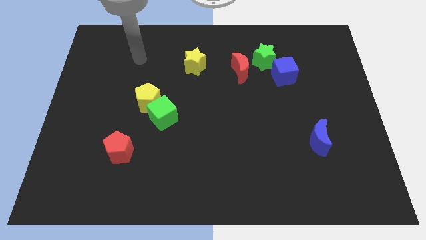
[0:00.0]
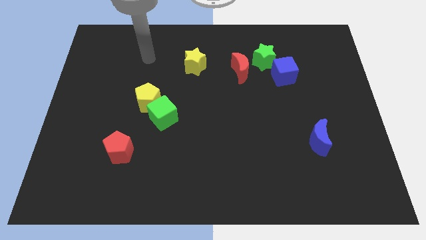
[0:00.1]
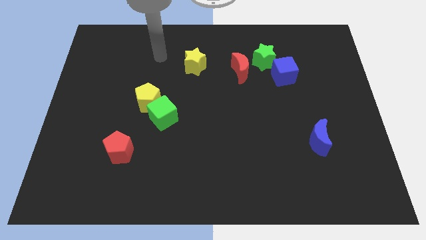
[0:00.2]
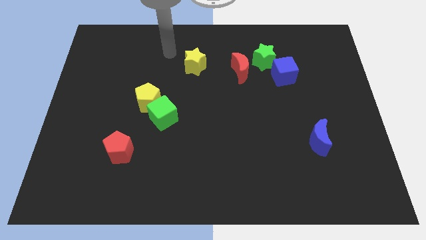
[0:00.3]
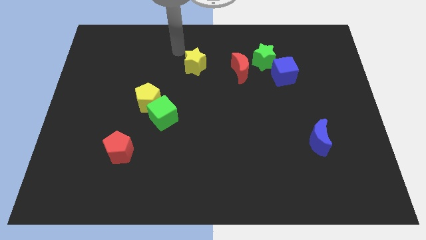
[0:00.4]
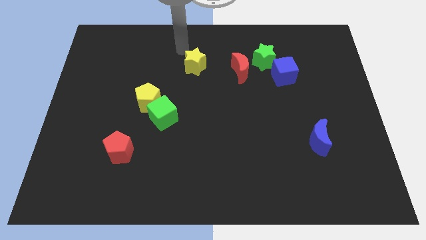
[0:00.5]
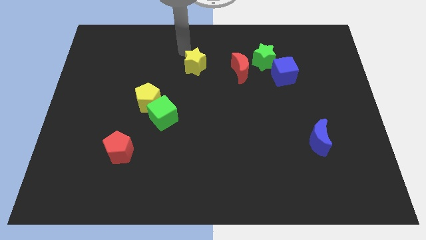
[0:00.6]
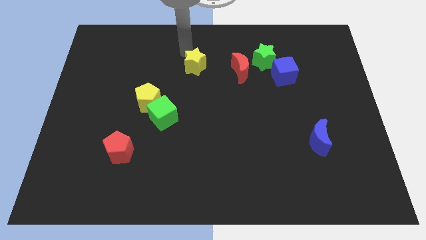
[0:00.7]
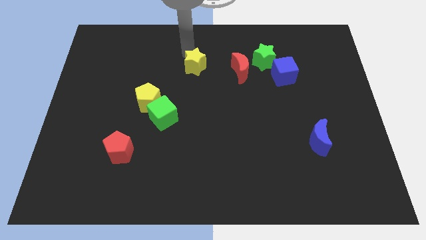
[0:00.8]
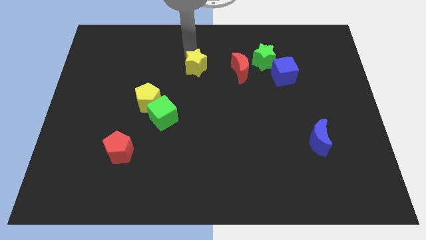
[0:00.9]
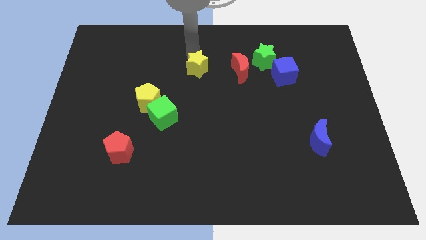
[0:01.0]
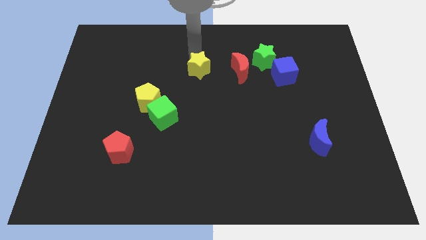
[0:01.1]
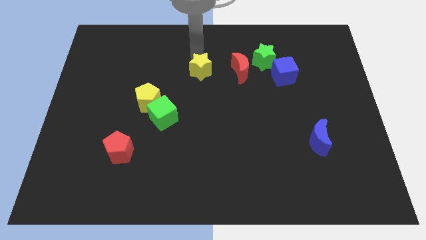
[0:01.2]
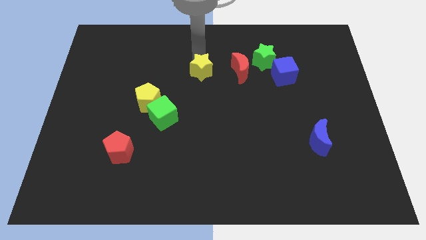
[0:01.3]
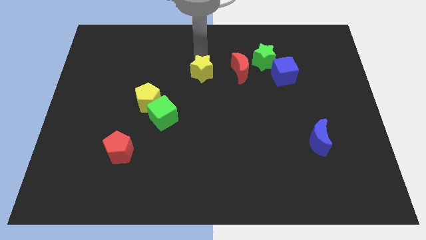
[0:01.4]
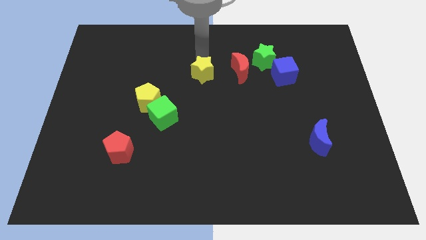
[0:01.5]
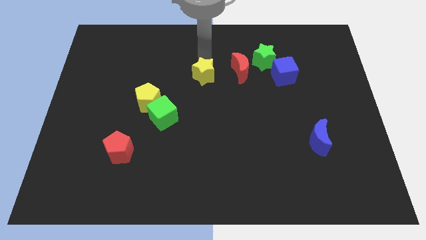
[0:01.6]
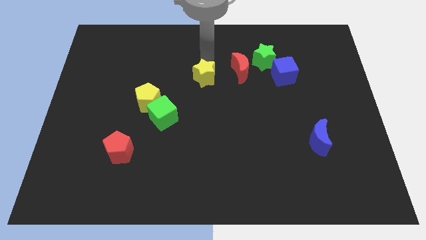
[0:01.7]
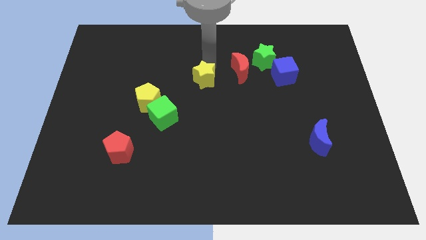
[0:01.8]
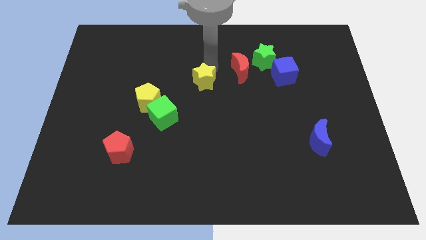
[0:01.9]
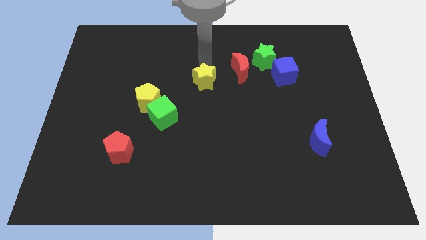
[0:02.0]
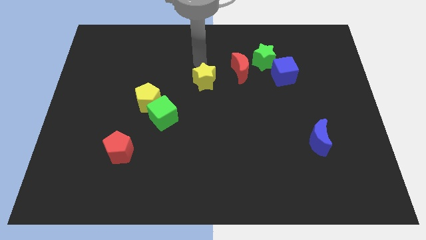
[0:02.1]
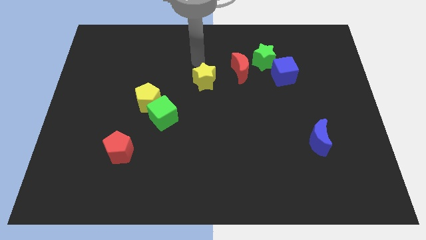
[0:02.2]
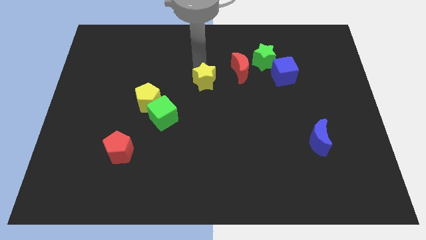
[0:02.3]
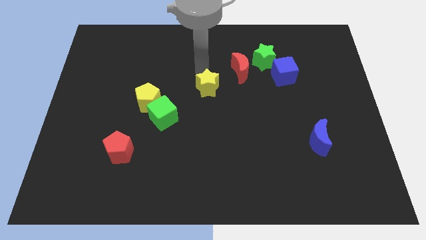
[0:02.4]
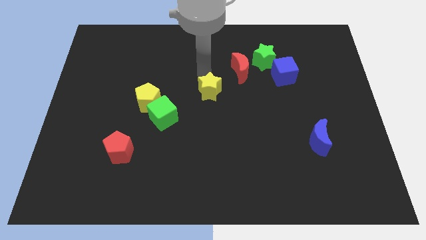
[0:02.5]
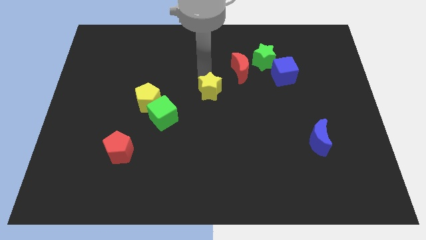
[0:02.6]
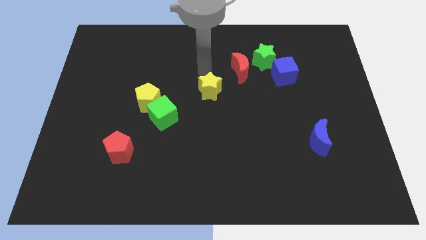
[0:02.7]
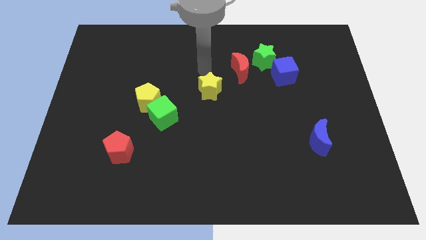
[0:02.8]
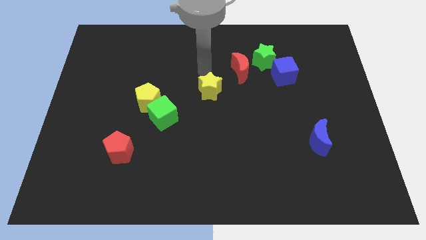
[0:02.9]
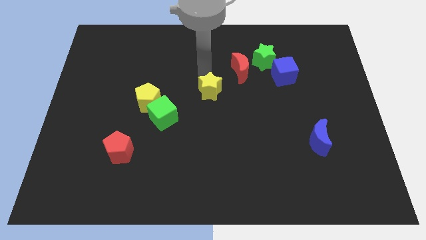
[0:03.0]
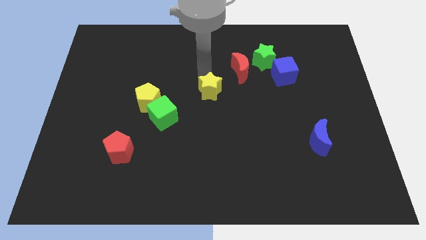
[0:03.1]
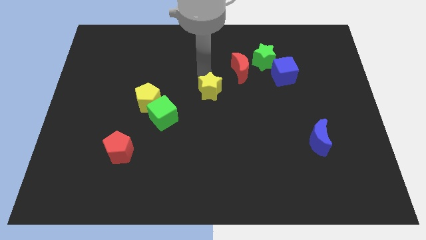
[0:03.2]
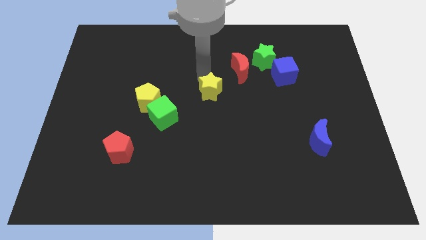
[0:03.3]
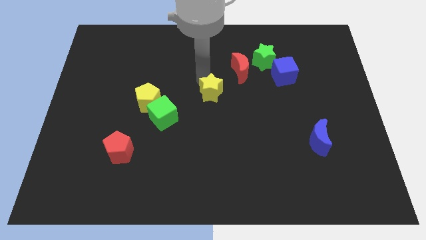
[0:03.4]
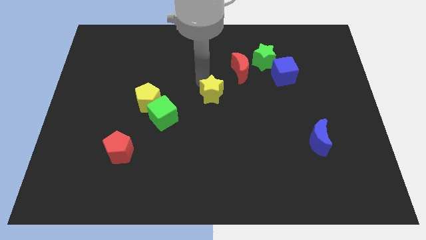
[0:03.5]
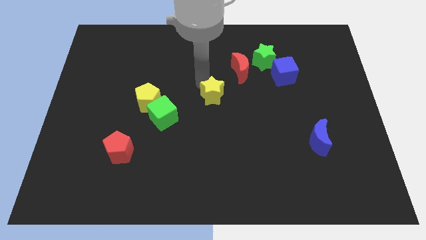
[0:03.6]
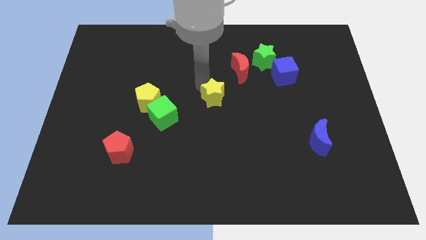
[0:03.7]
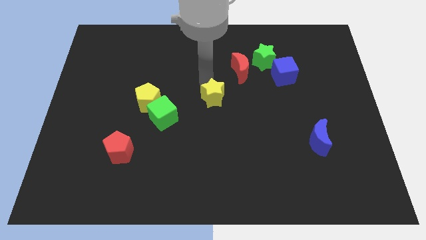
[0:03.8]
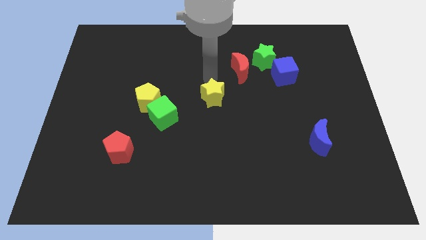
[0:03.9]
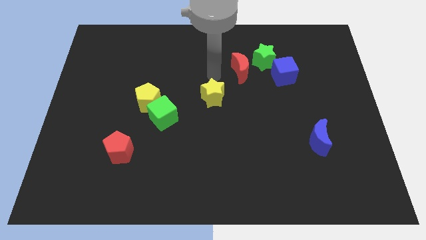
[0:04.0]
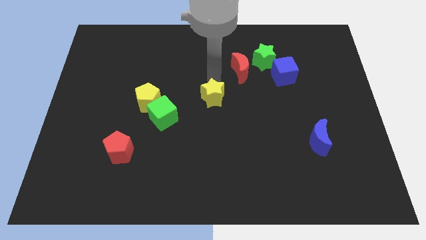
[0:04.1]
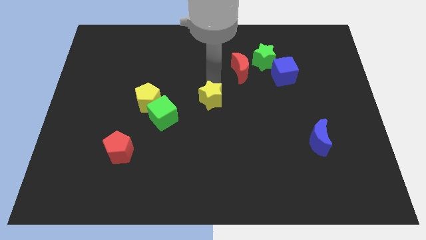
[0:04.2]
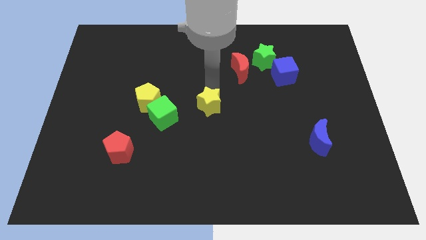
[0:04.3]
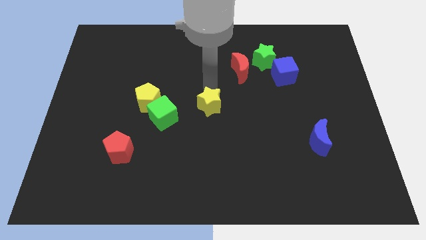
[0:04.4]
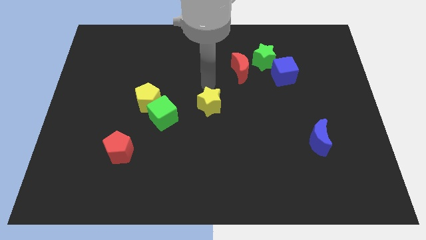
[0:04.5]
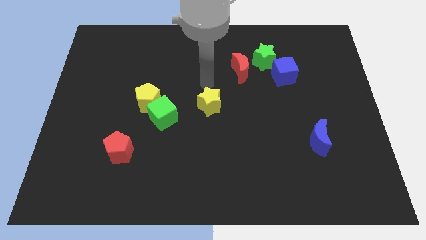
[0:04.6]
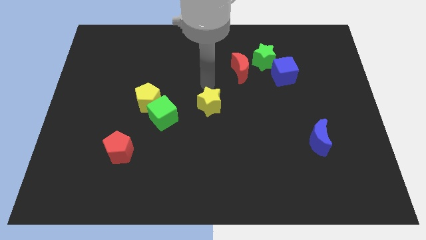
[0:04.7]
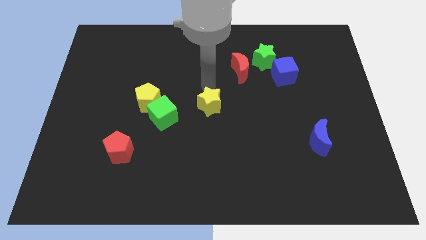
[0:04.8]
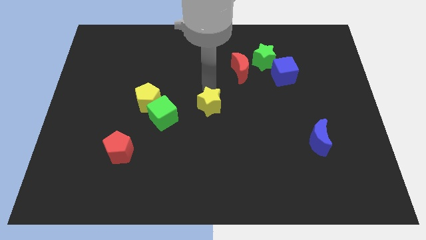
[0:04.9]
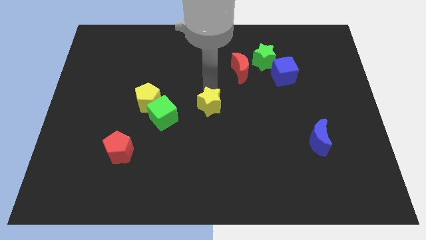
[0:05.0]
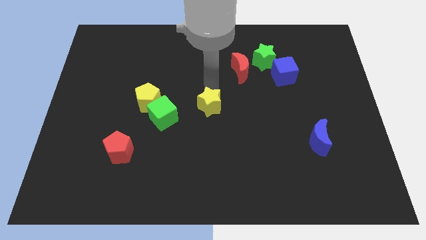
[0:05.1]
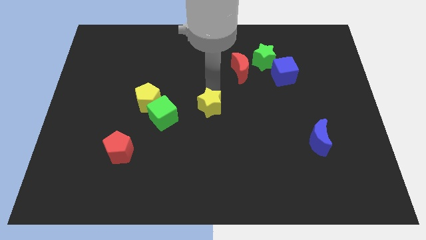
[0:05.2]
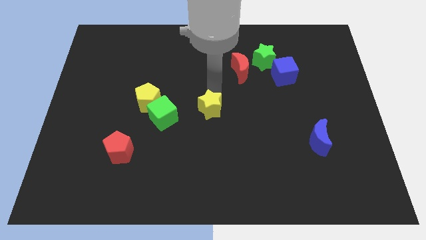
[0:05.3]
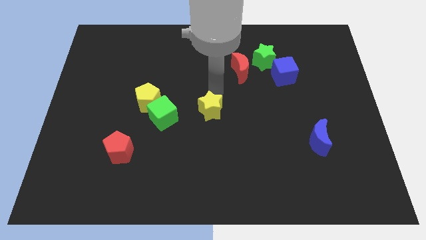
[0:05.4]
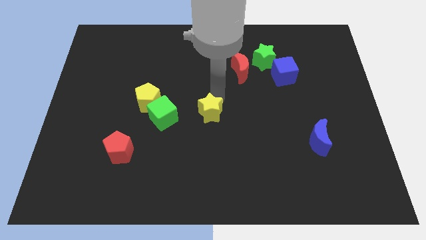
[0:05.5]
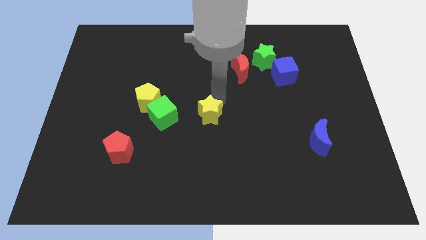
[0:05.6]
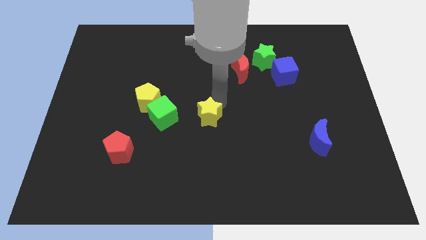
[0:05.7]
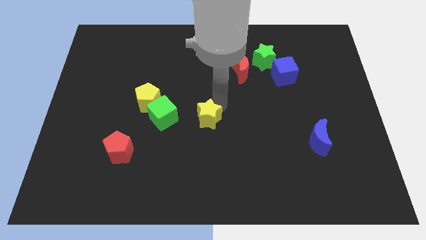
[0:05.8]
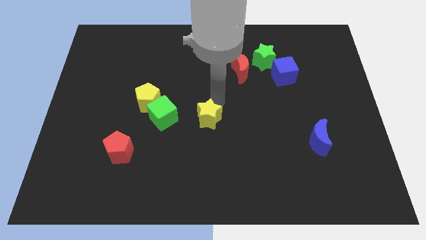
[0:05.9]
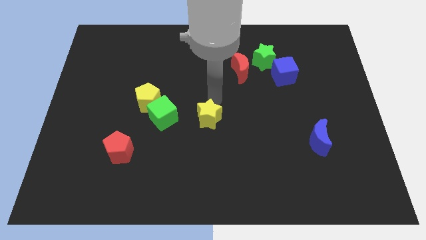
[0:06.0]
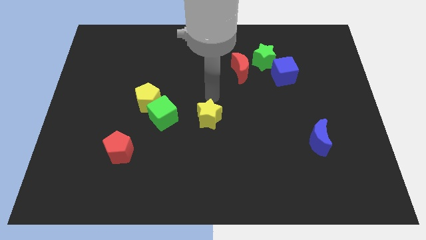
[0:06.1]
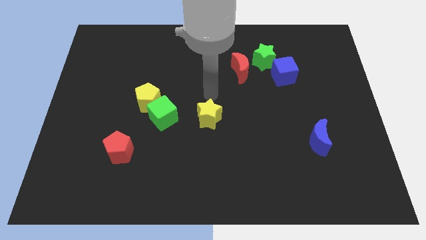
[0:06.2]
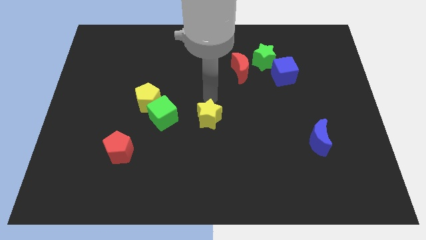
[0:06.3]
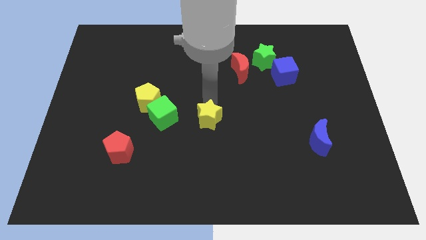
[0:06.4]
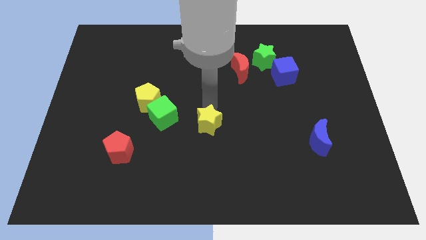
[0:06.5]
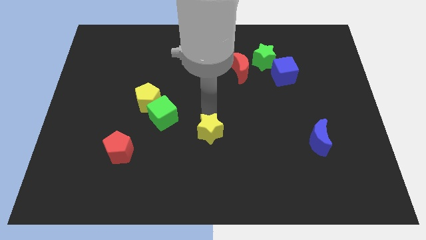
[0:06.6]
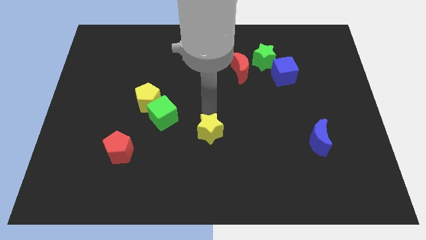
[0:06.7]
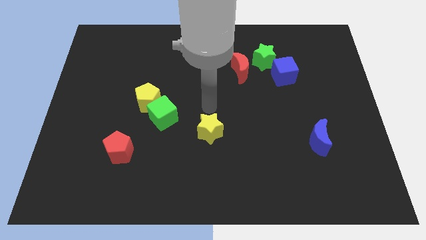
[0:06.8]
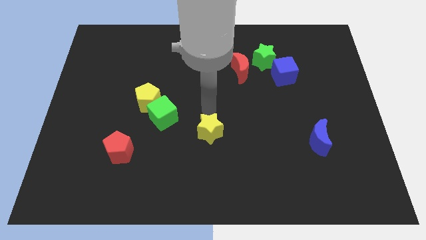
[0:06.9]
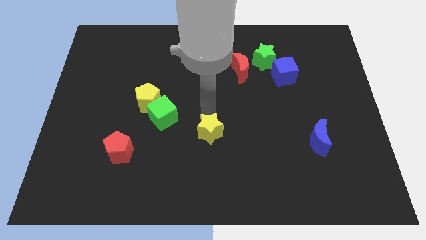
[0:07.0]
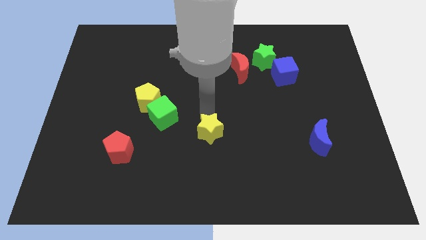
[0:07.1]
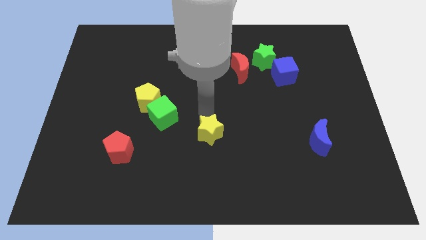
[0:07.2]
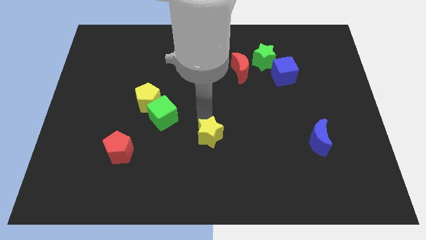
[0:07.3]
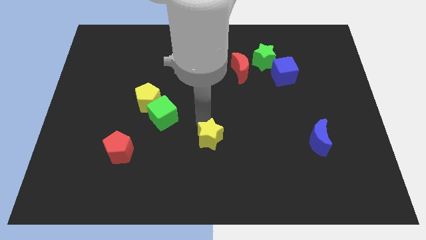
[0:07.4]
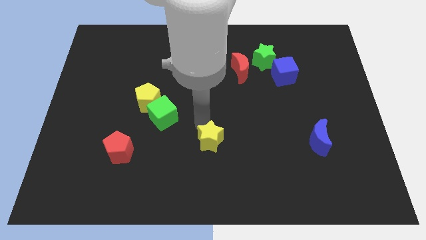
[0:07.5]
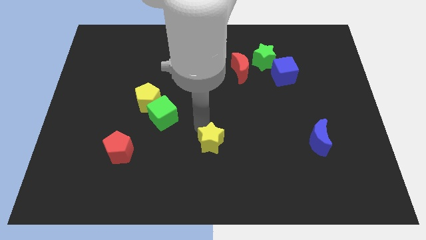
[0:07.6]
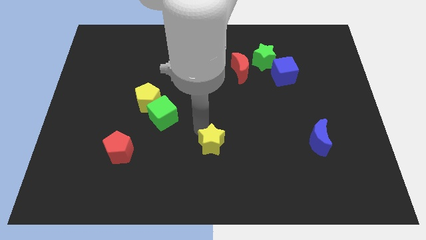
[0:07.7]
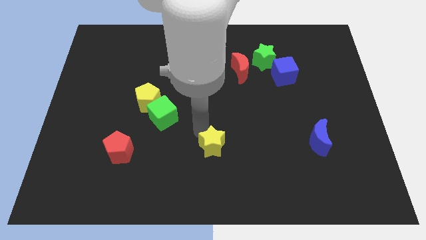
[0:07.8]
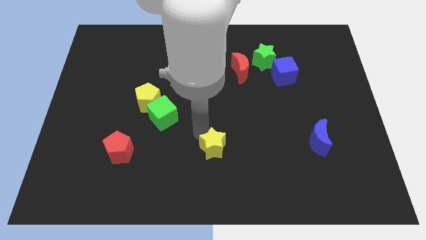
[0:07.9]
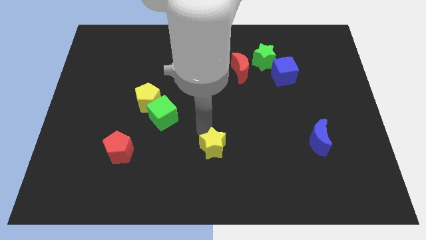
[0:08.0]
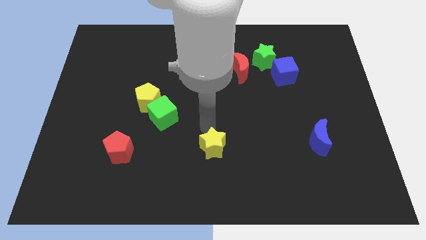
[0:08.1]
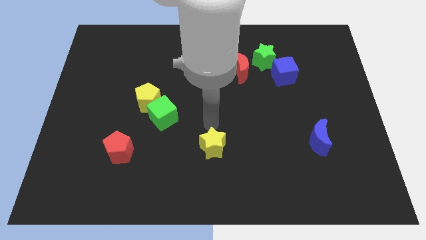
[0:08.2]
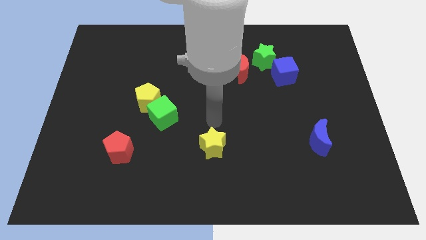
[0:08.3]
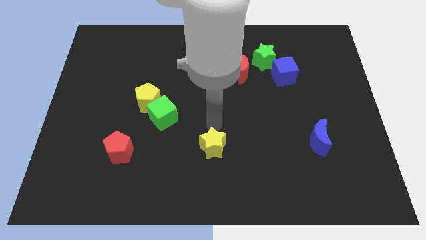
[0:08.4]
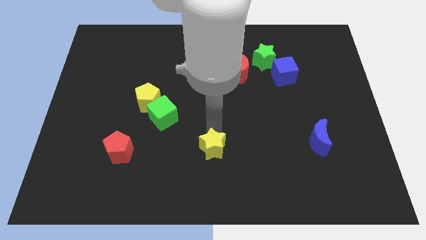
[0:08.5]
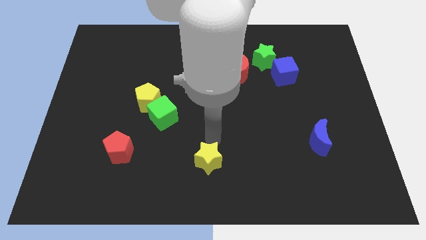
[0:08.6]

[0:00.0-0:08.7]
move the yellow star to the bottom
